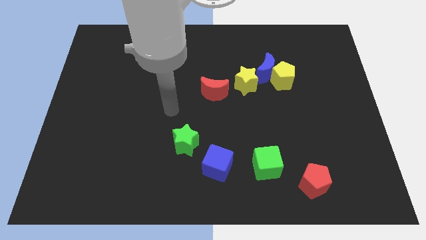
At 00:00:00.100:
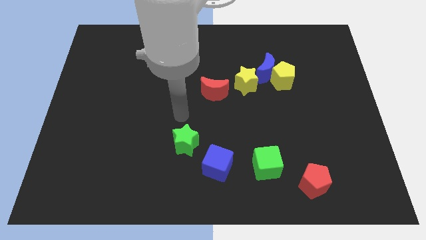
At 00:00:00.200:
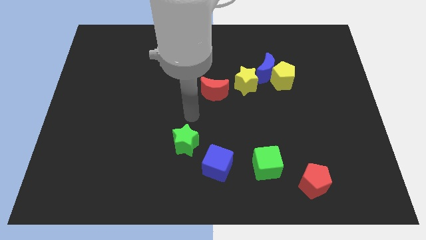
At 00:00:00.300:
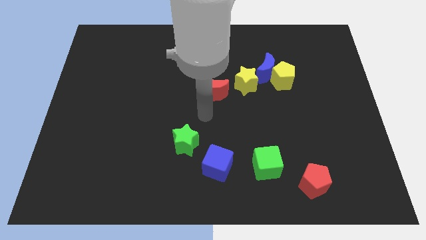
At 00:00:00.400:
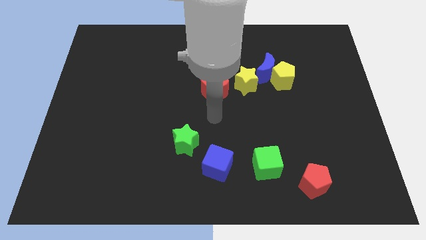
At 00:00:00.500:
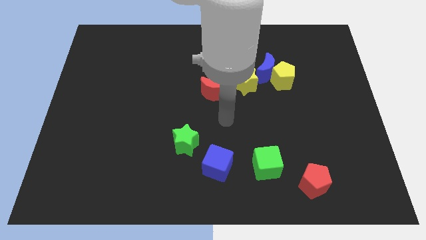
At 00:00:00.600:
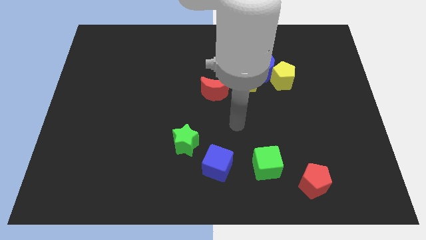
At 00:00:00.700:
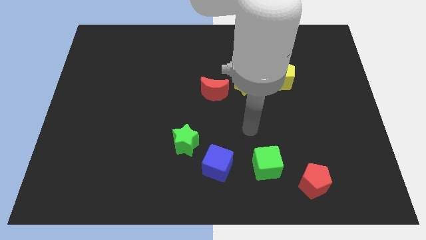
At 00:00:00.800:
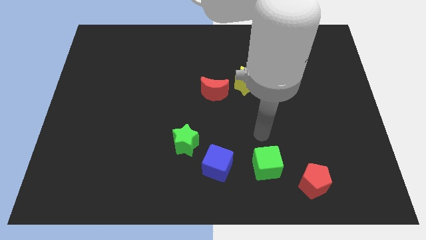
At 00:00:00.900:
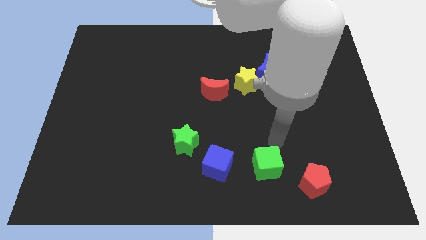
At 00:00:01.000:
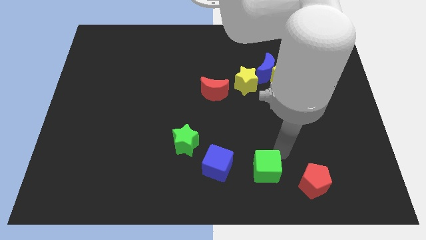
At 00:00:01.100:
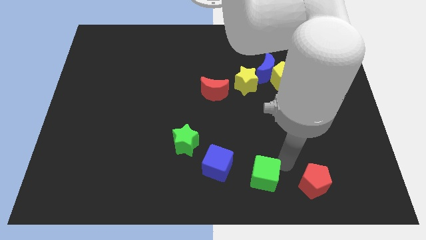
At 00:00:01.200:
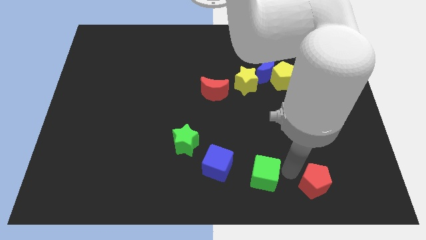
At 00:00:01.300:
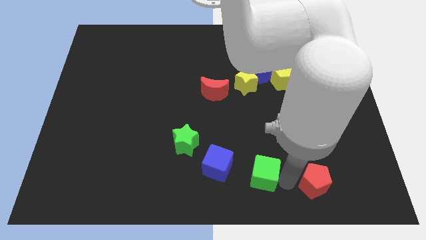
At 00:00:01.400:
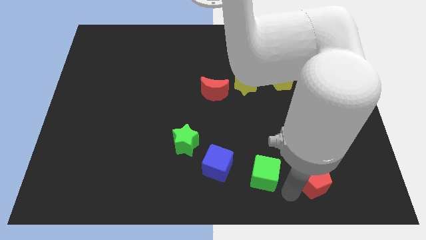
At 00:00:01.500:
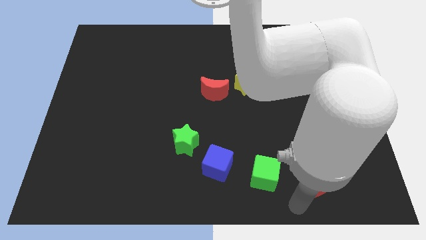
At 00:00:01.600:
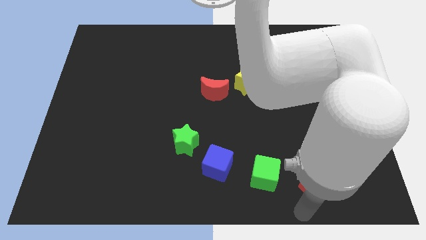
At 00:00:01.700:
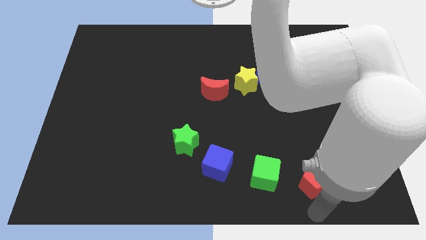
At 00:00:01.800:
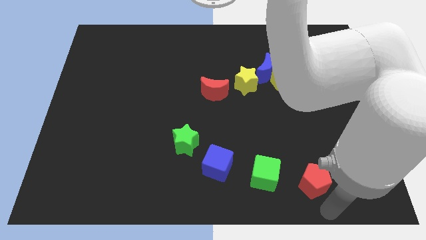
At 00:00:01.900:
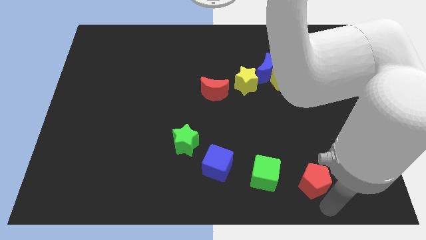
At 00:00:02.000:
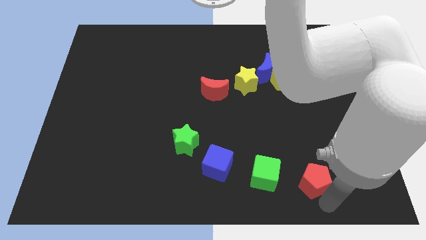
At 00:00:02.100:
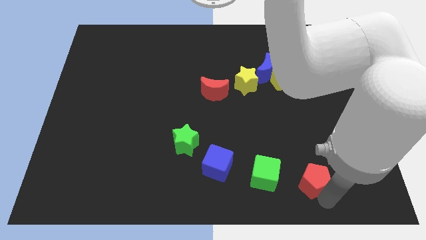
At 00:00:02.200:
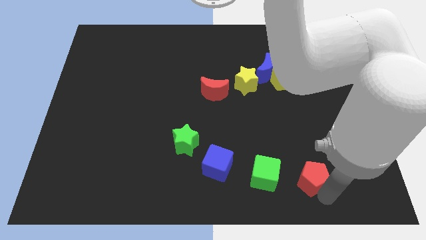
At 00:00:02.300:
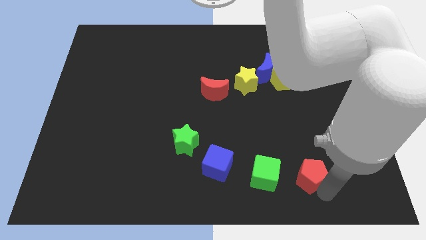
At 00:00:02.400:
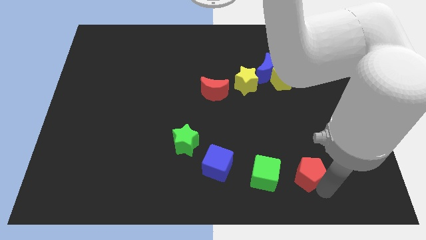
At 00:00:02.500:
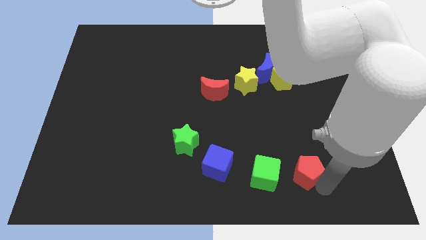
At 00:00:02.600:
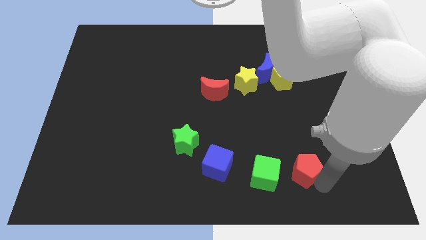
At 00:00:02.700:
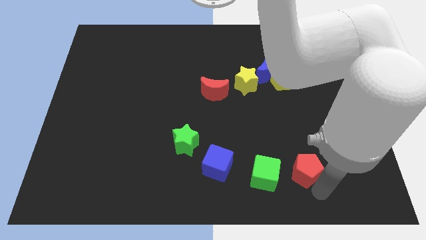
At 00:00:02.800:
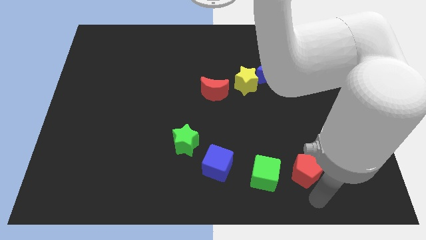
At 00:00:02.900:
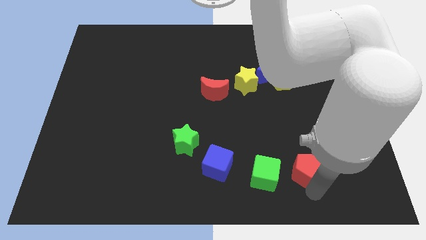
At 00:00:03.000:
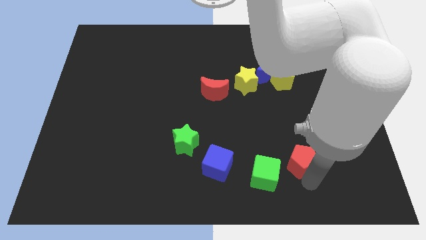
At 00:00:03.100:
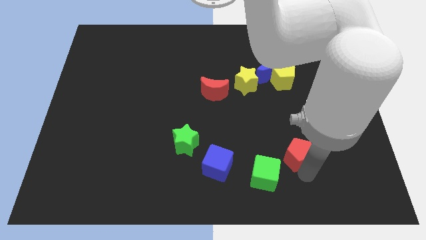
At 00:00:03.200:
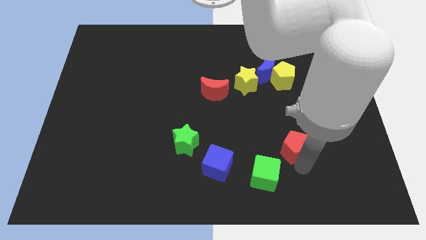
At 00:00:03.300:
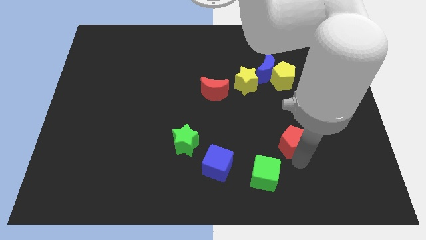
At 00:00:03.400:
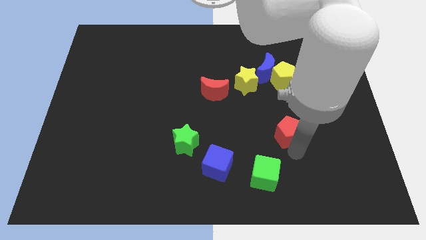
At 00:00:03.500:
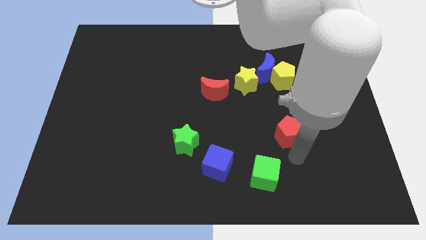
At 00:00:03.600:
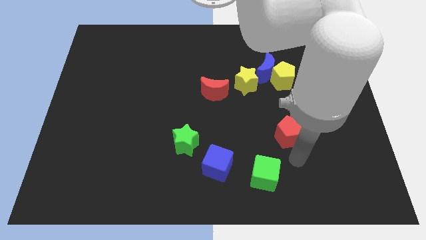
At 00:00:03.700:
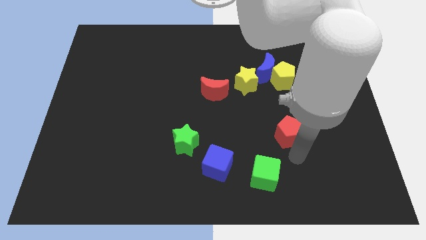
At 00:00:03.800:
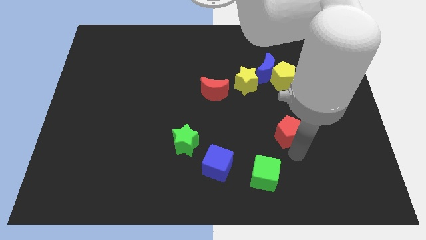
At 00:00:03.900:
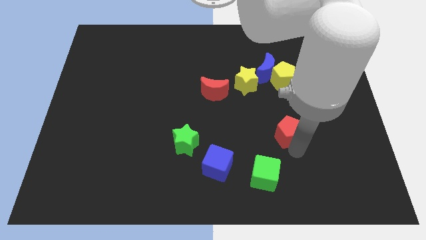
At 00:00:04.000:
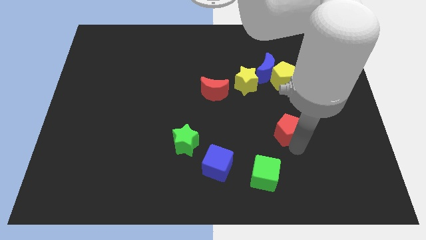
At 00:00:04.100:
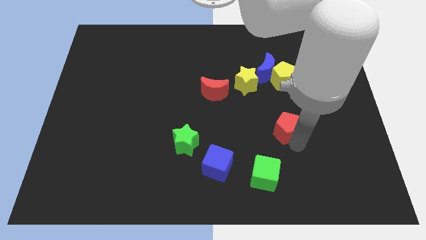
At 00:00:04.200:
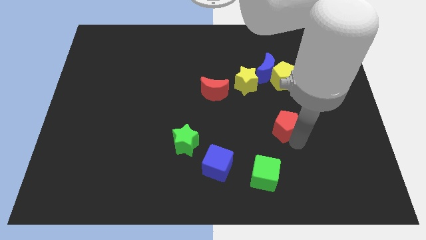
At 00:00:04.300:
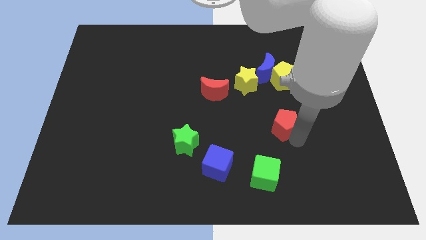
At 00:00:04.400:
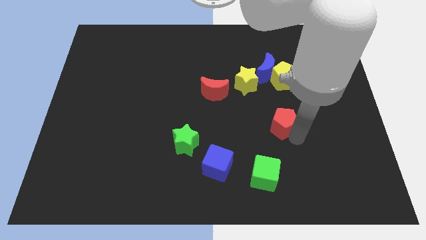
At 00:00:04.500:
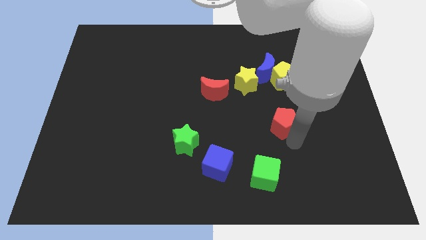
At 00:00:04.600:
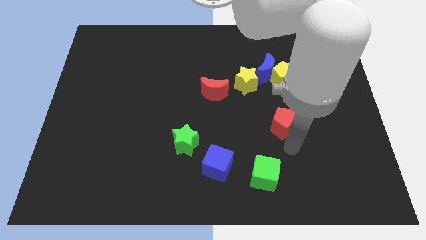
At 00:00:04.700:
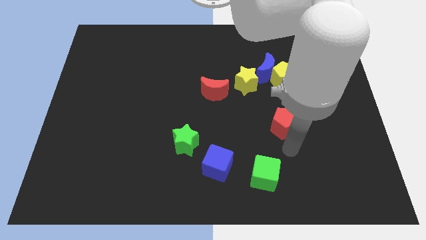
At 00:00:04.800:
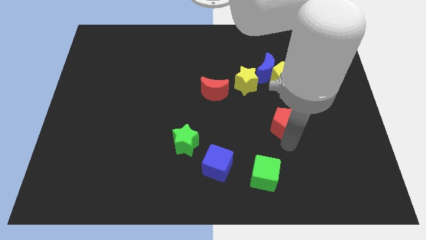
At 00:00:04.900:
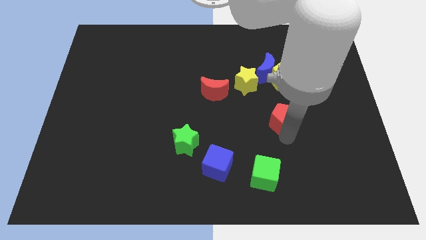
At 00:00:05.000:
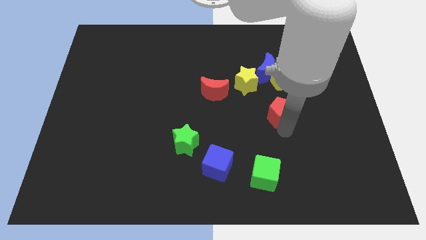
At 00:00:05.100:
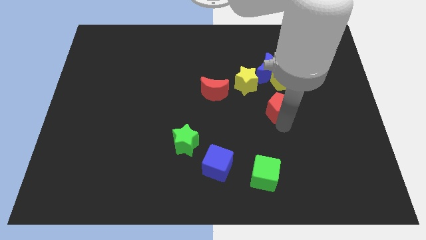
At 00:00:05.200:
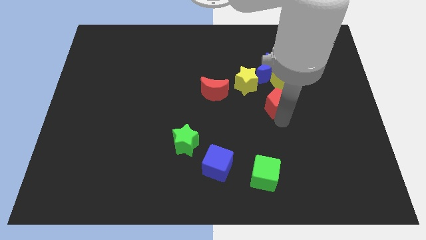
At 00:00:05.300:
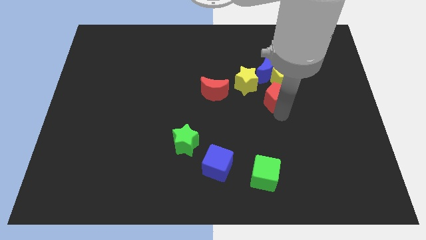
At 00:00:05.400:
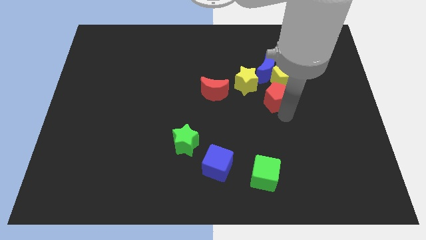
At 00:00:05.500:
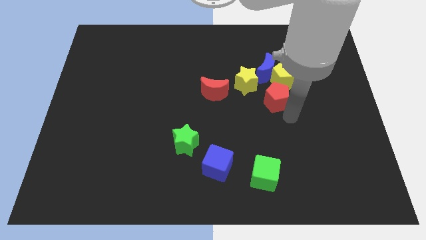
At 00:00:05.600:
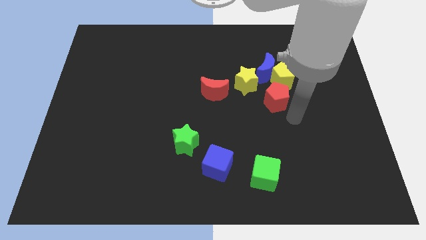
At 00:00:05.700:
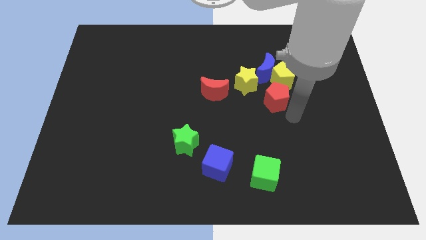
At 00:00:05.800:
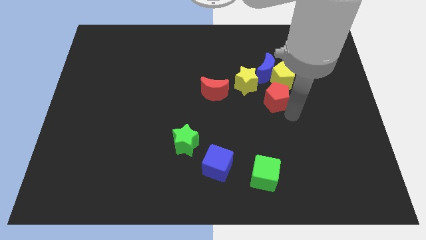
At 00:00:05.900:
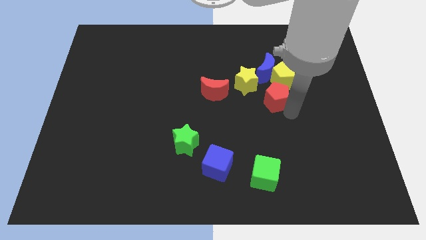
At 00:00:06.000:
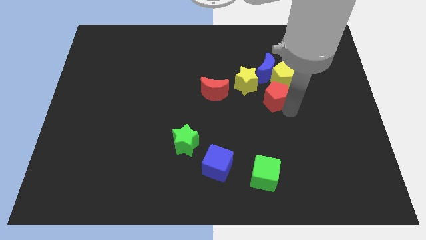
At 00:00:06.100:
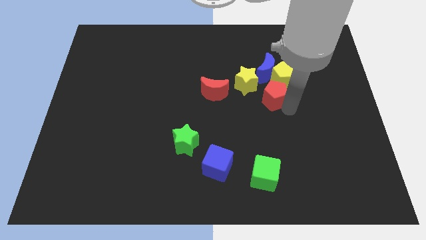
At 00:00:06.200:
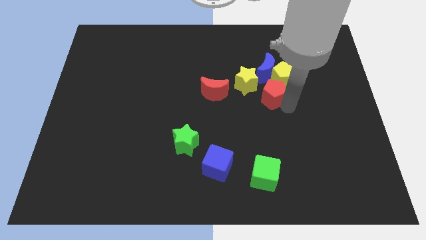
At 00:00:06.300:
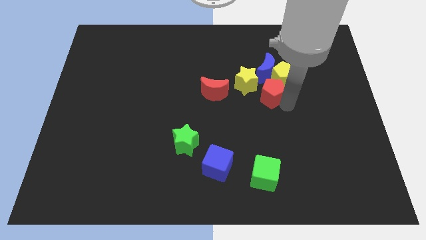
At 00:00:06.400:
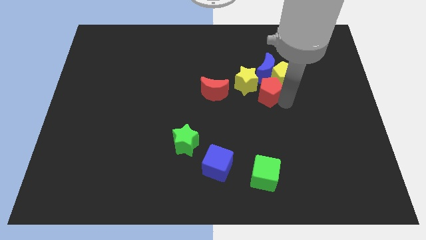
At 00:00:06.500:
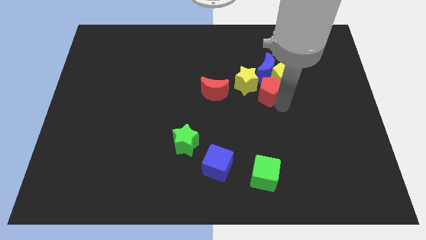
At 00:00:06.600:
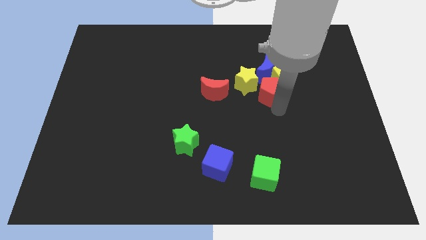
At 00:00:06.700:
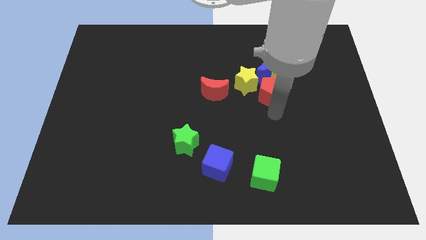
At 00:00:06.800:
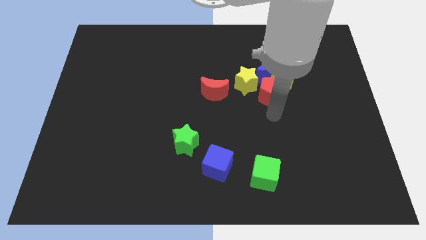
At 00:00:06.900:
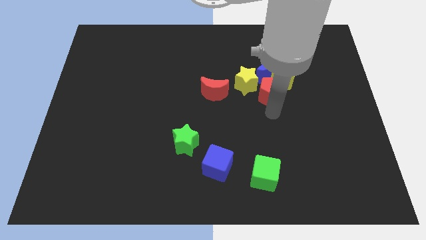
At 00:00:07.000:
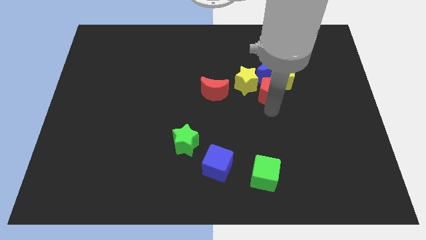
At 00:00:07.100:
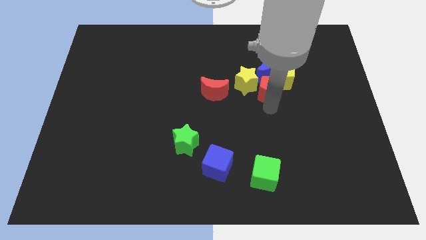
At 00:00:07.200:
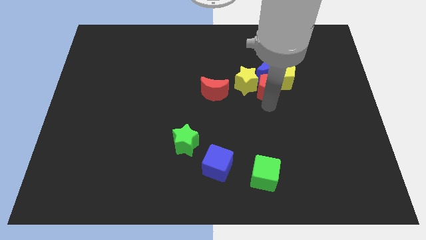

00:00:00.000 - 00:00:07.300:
move the red pentagon towards the blue moon
